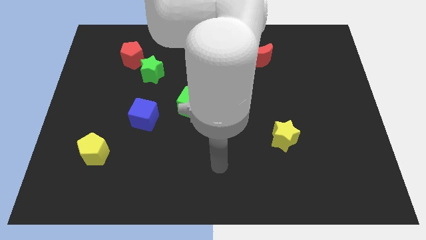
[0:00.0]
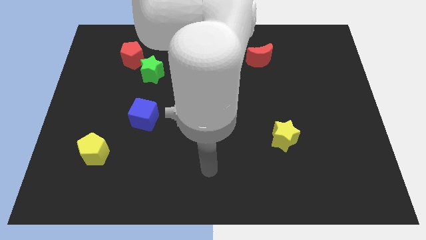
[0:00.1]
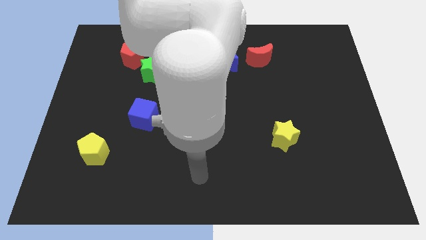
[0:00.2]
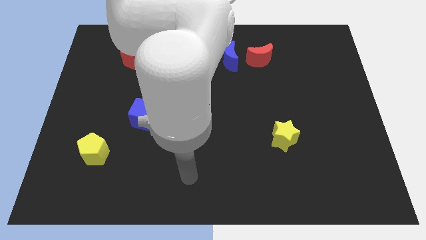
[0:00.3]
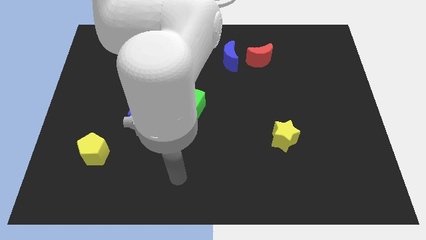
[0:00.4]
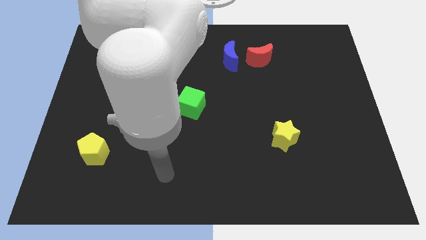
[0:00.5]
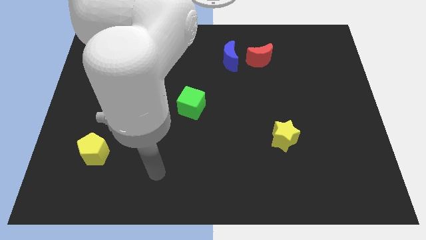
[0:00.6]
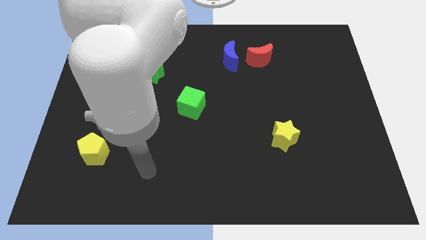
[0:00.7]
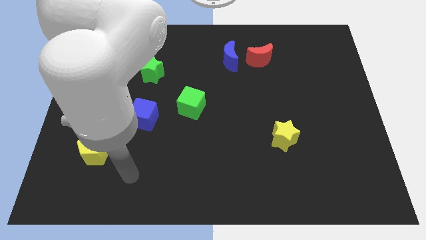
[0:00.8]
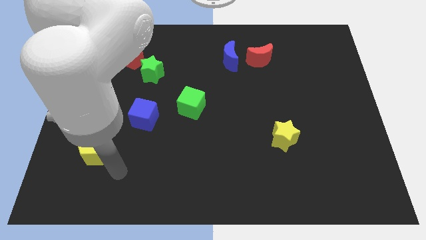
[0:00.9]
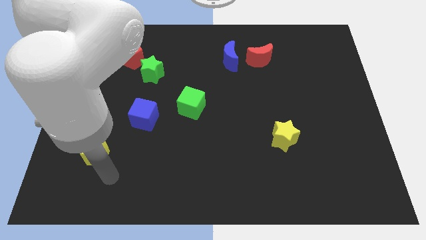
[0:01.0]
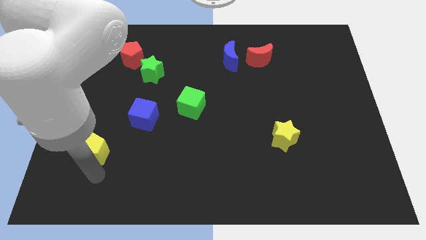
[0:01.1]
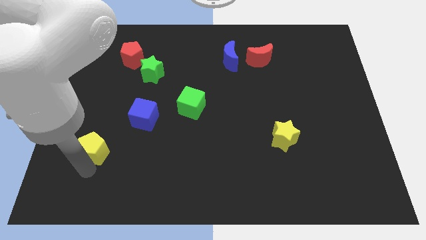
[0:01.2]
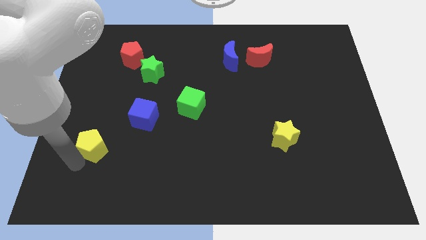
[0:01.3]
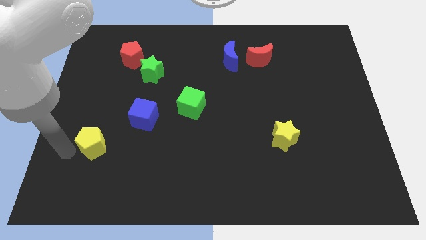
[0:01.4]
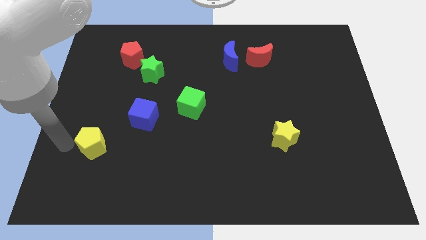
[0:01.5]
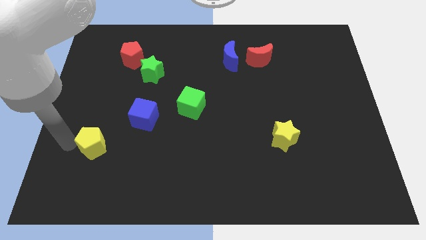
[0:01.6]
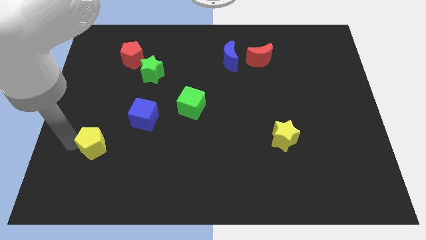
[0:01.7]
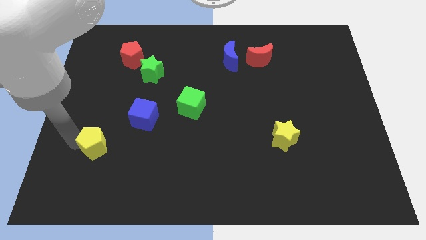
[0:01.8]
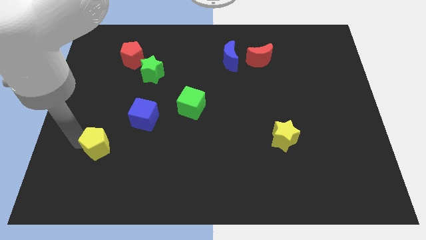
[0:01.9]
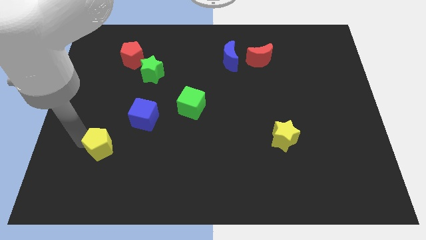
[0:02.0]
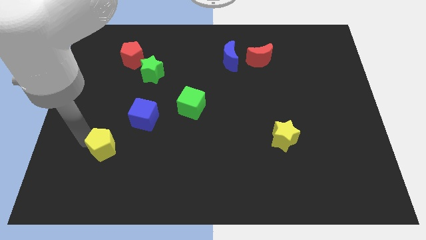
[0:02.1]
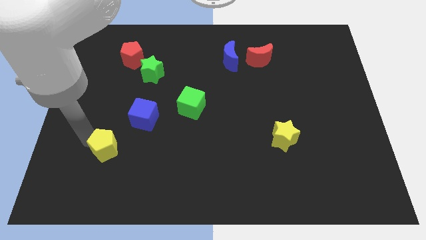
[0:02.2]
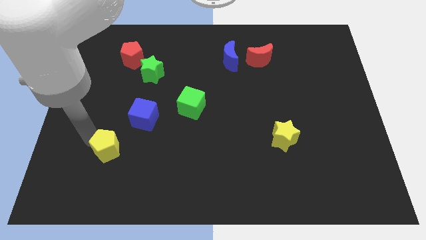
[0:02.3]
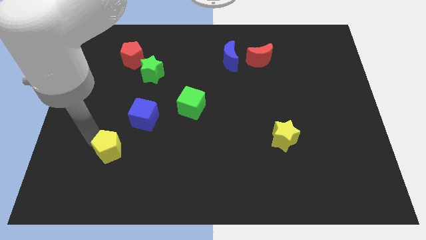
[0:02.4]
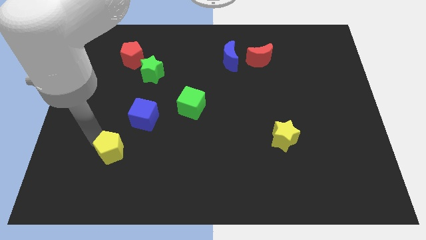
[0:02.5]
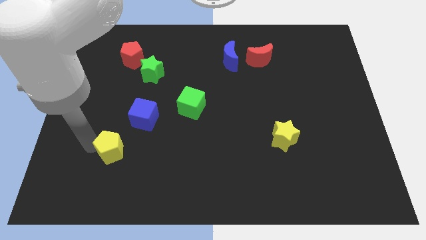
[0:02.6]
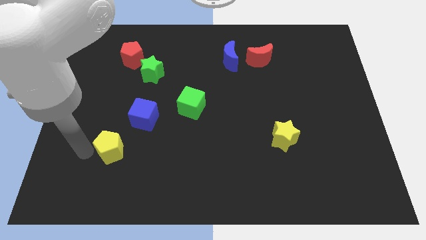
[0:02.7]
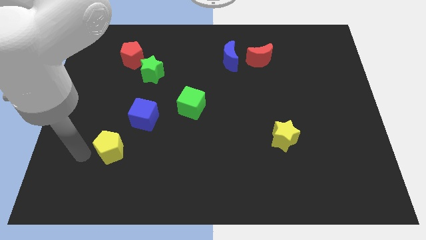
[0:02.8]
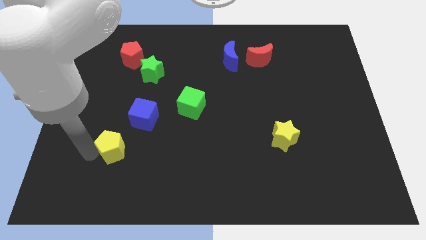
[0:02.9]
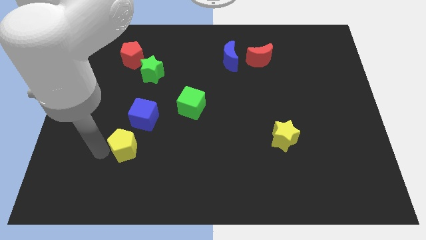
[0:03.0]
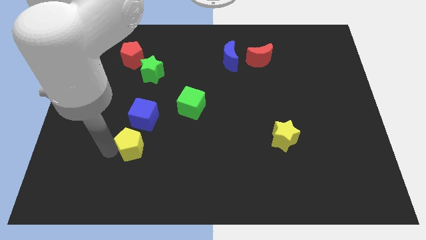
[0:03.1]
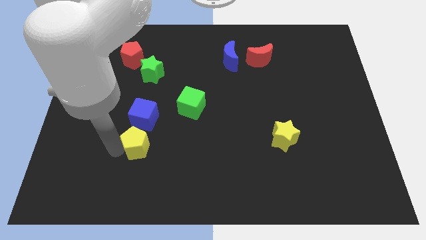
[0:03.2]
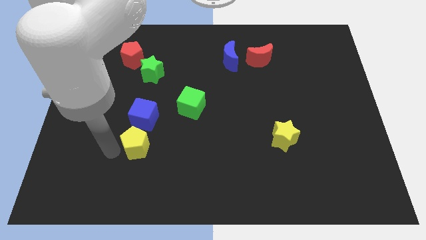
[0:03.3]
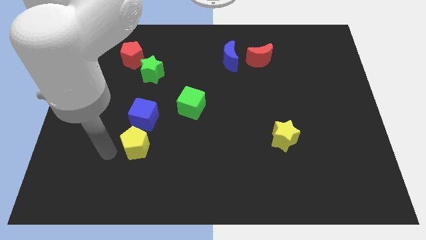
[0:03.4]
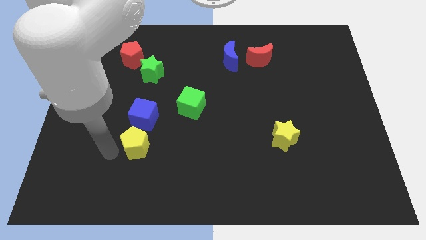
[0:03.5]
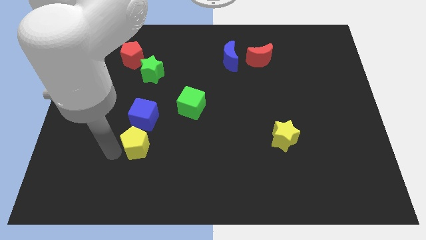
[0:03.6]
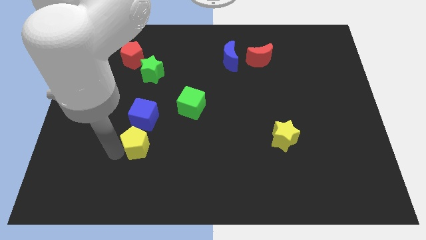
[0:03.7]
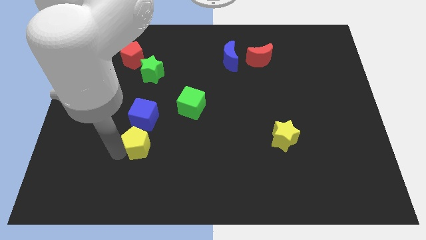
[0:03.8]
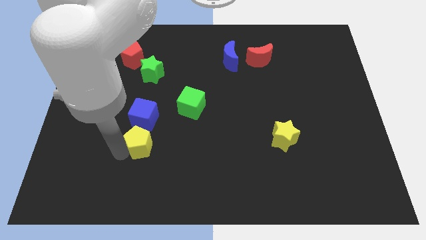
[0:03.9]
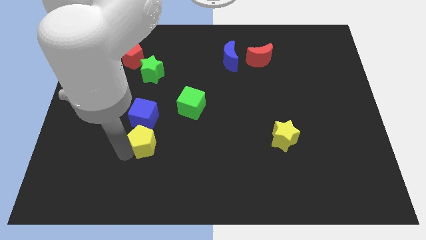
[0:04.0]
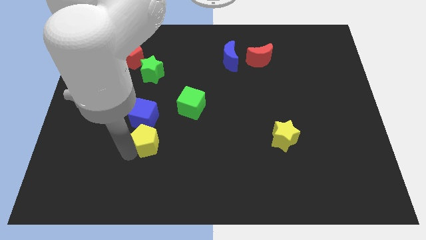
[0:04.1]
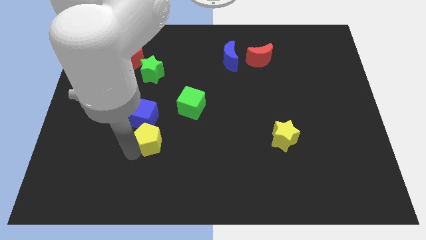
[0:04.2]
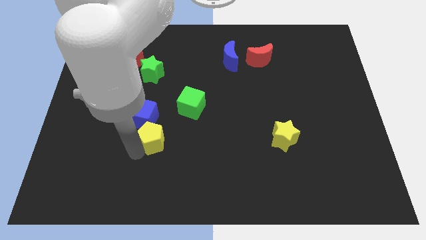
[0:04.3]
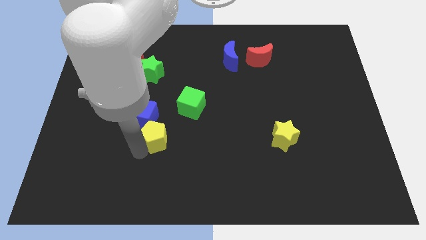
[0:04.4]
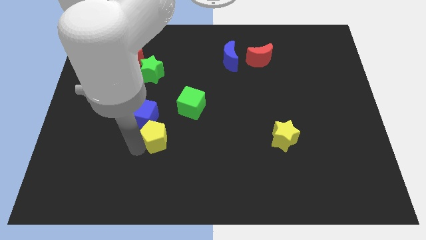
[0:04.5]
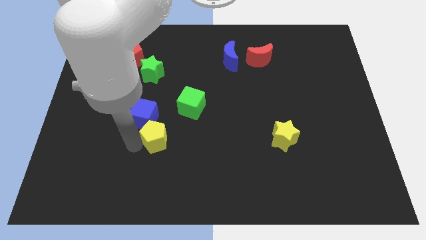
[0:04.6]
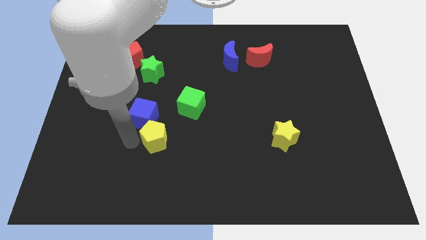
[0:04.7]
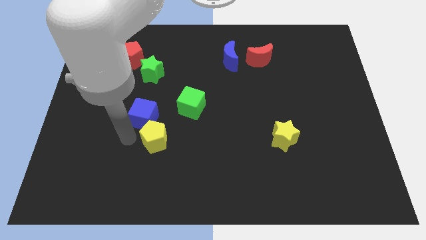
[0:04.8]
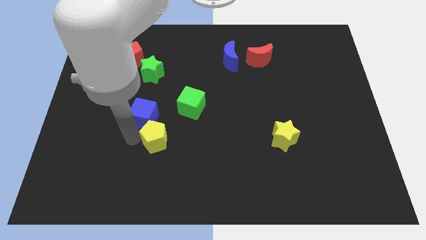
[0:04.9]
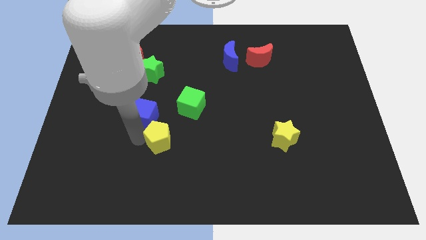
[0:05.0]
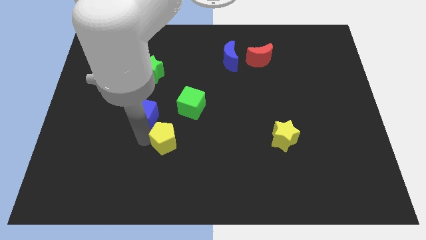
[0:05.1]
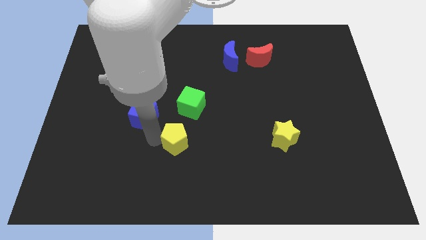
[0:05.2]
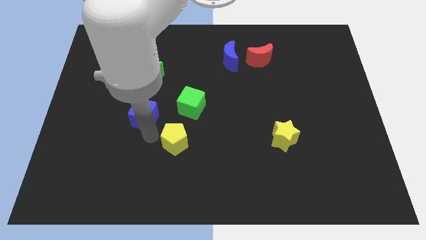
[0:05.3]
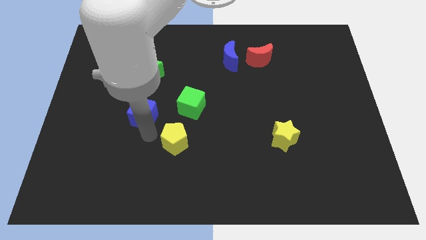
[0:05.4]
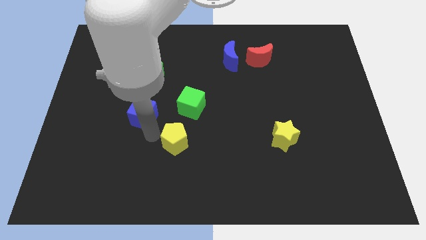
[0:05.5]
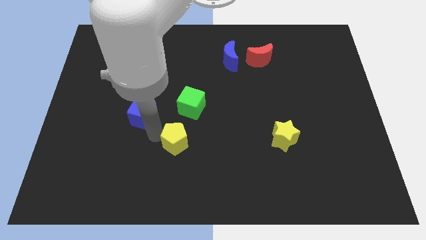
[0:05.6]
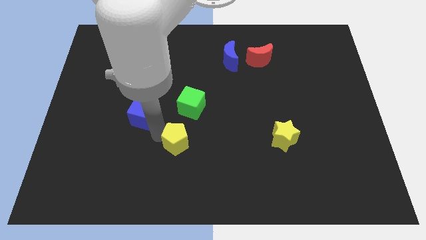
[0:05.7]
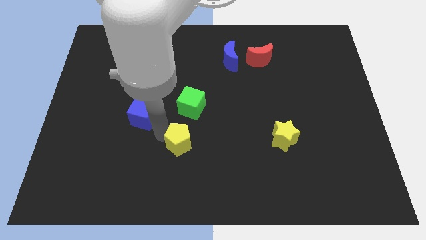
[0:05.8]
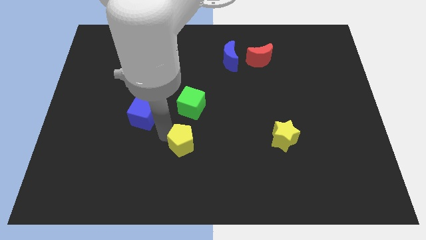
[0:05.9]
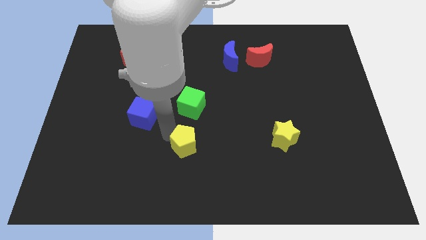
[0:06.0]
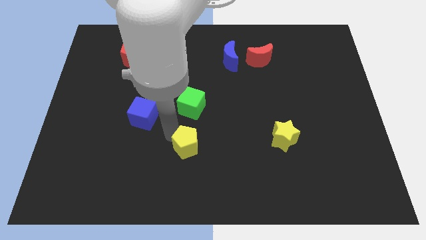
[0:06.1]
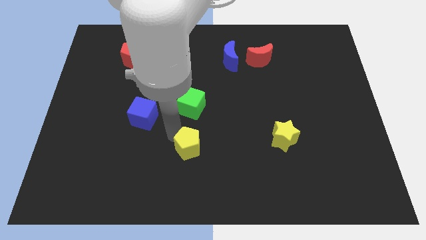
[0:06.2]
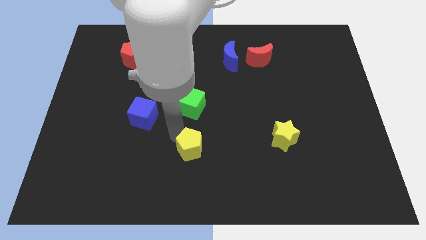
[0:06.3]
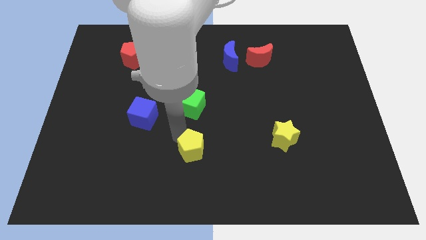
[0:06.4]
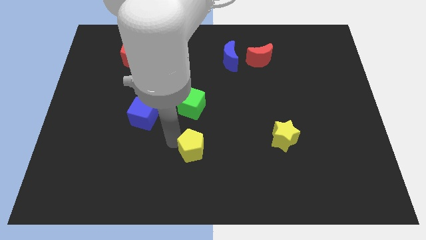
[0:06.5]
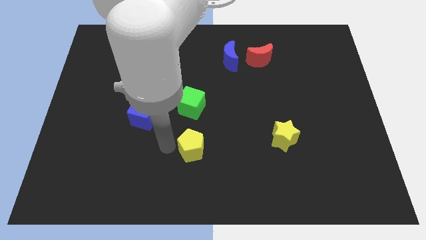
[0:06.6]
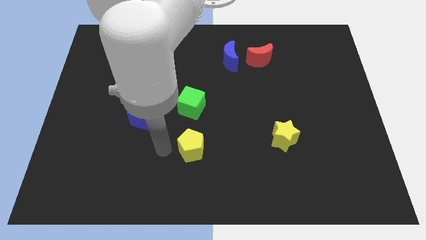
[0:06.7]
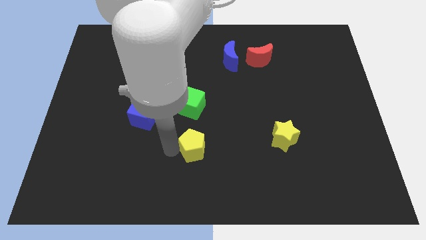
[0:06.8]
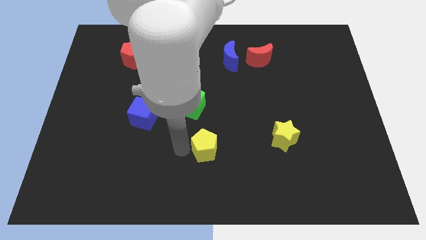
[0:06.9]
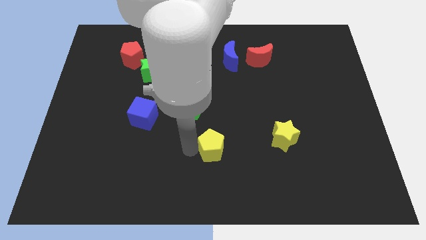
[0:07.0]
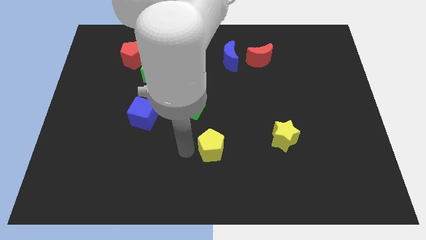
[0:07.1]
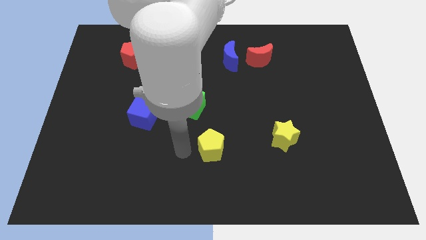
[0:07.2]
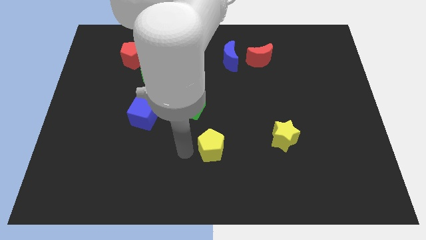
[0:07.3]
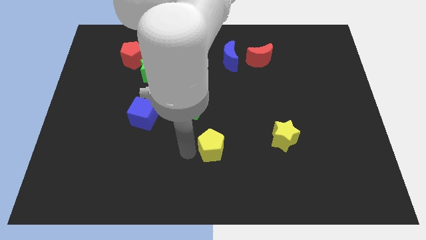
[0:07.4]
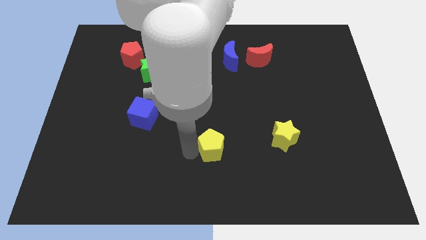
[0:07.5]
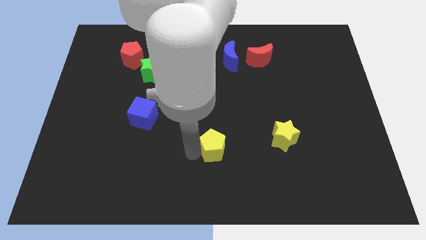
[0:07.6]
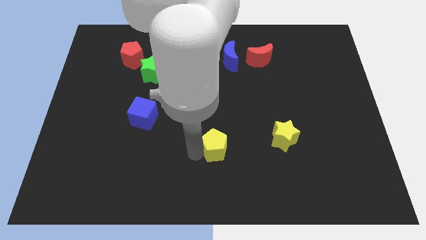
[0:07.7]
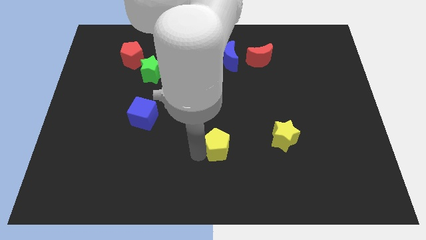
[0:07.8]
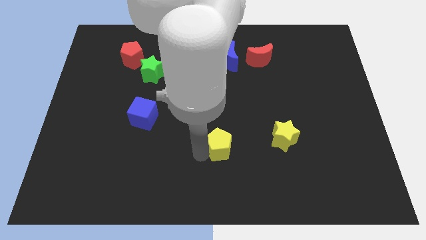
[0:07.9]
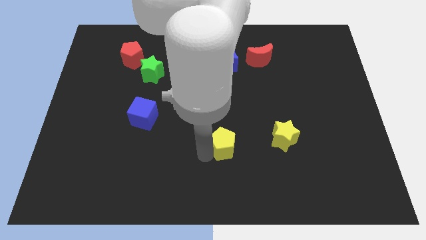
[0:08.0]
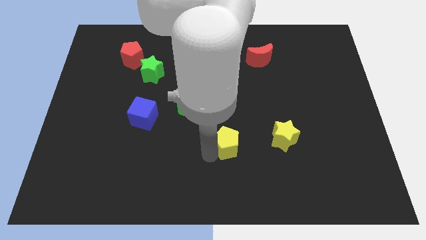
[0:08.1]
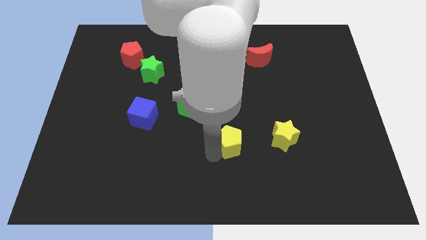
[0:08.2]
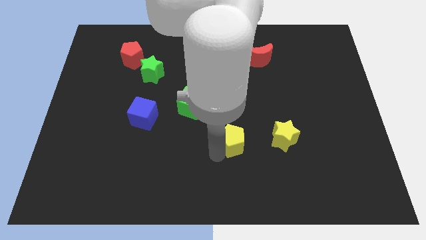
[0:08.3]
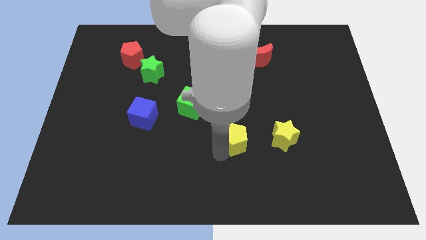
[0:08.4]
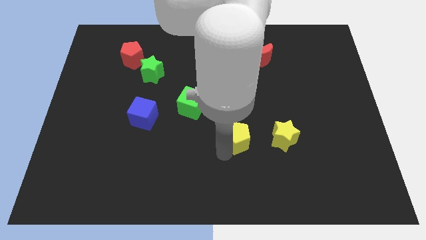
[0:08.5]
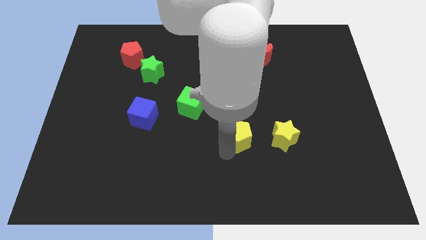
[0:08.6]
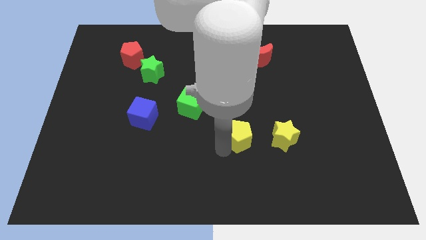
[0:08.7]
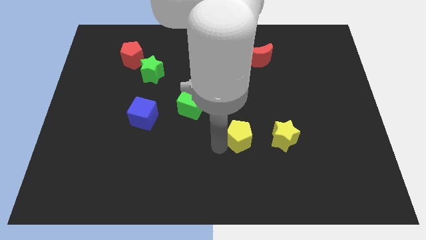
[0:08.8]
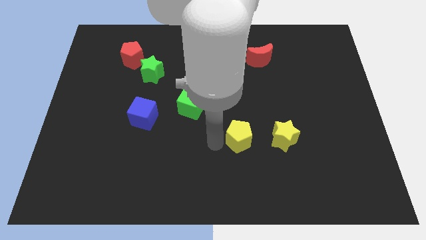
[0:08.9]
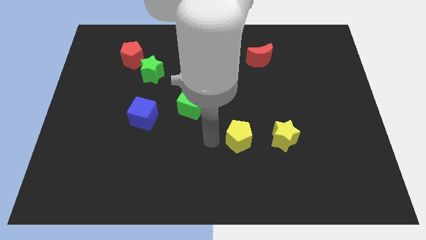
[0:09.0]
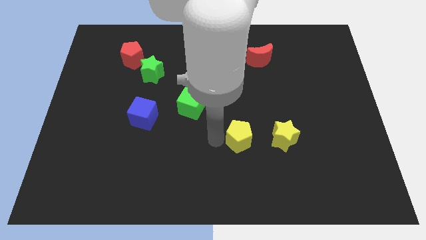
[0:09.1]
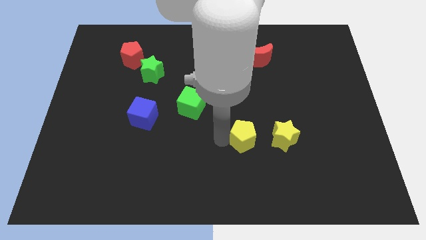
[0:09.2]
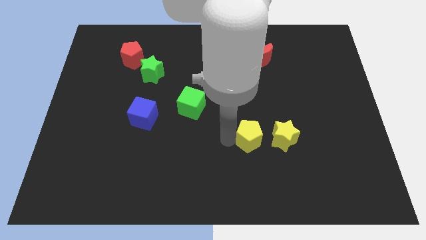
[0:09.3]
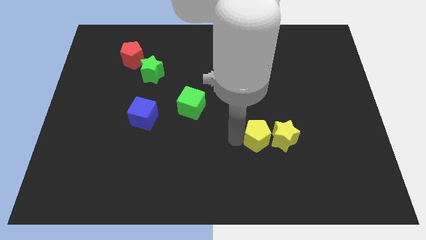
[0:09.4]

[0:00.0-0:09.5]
put the yellow pentagon towards the yellow star
